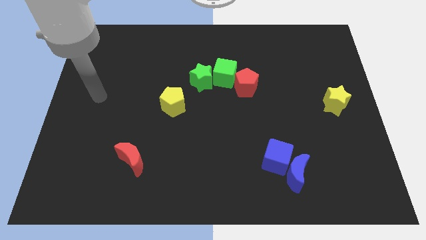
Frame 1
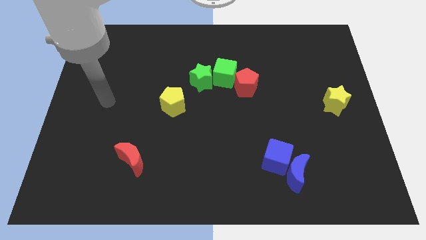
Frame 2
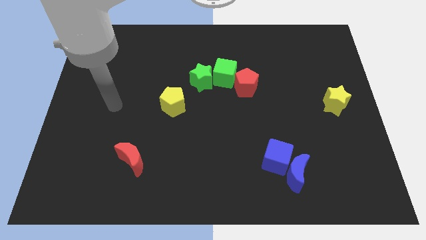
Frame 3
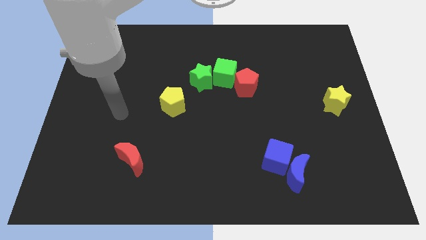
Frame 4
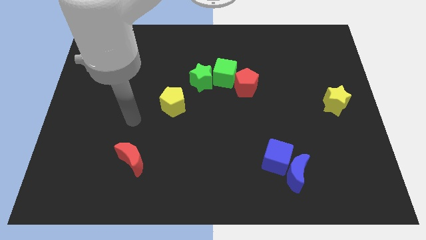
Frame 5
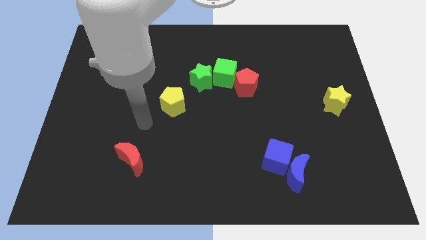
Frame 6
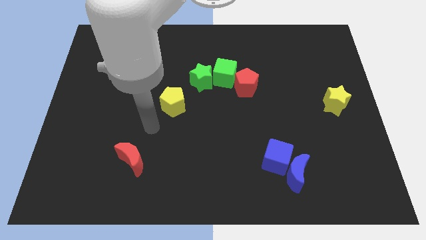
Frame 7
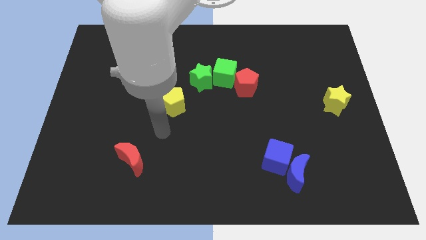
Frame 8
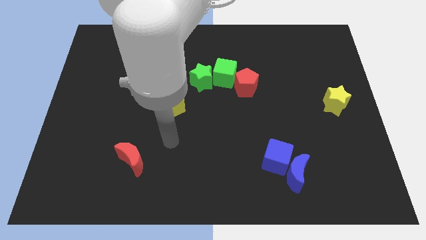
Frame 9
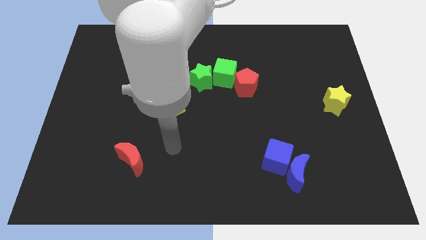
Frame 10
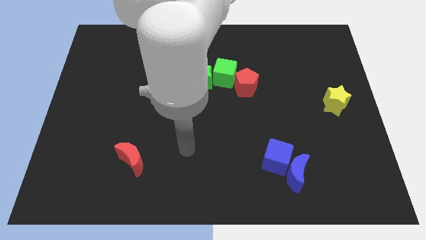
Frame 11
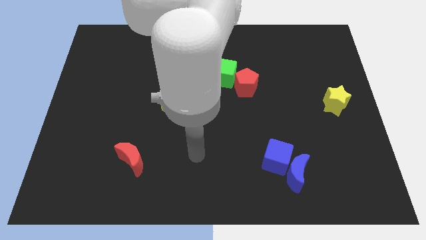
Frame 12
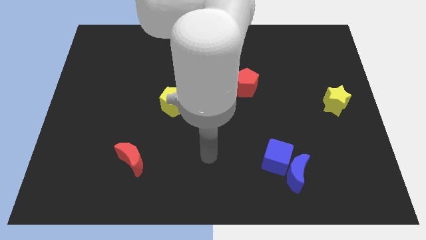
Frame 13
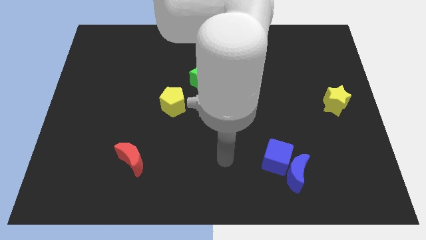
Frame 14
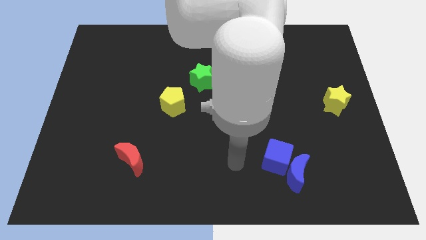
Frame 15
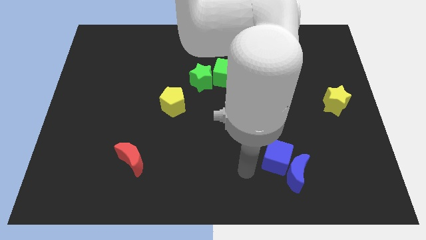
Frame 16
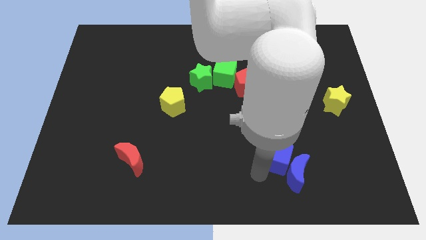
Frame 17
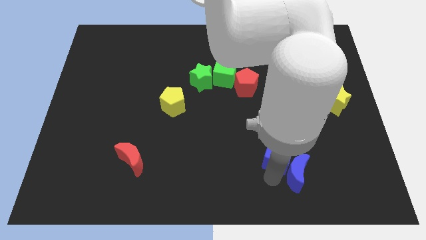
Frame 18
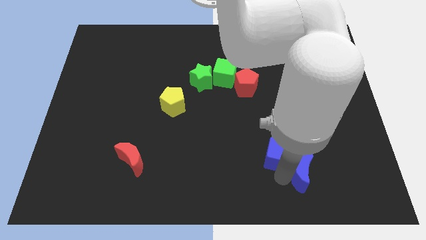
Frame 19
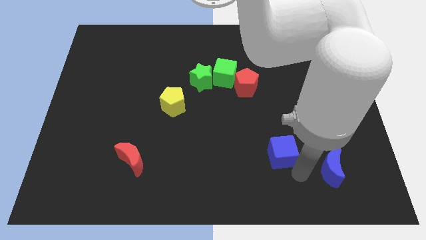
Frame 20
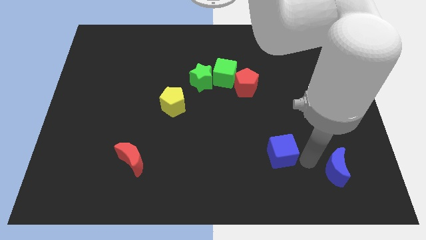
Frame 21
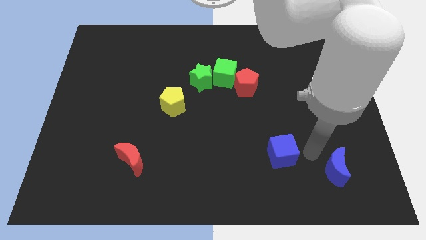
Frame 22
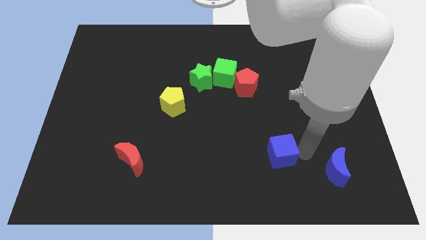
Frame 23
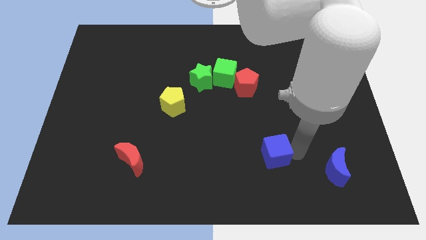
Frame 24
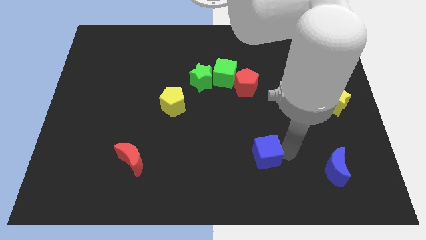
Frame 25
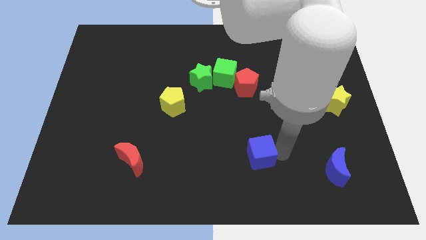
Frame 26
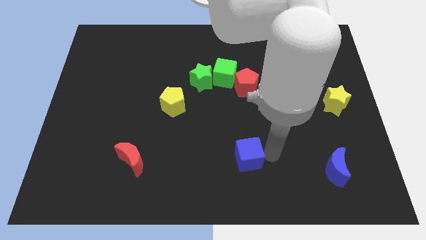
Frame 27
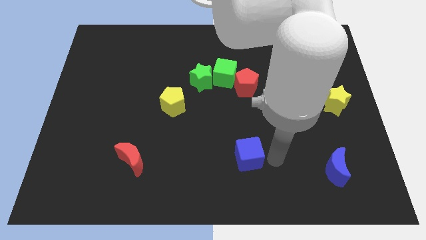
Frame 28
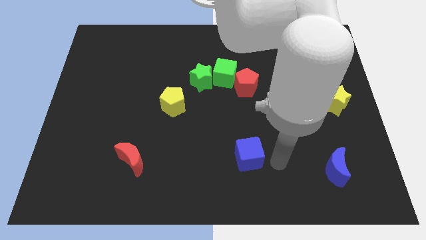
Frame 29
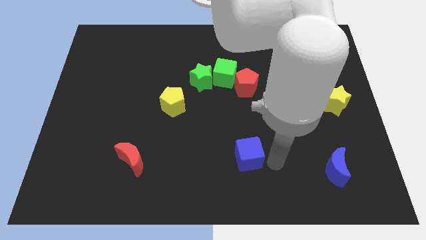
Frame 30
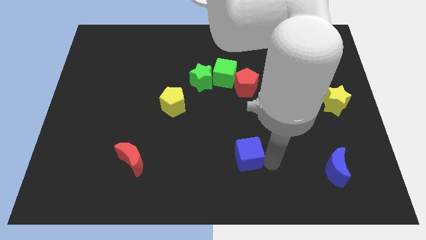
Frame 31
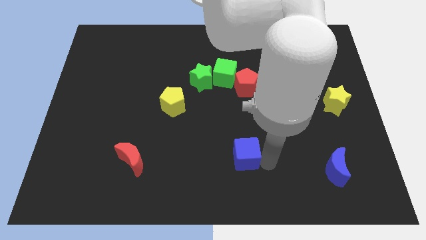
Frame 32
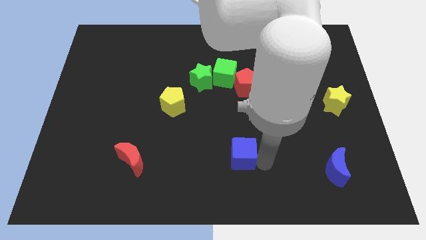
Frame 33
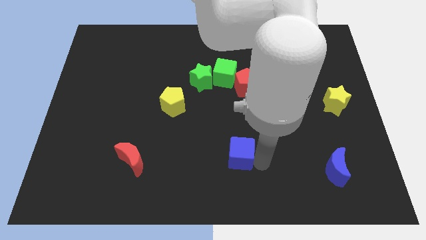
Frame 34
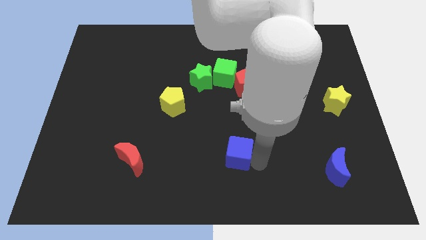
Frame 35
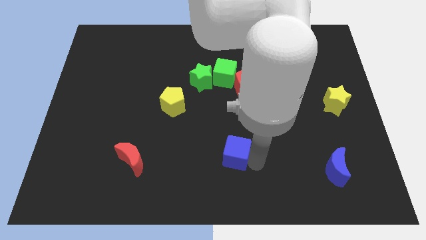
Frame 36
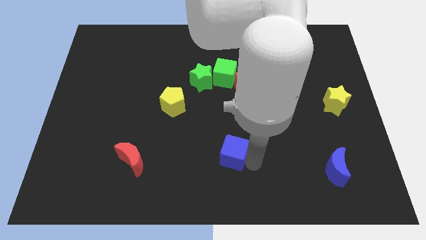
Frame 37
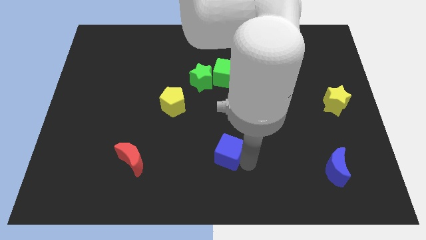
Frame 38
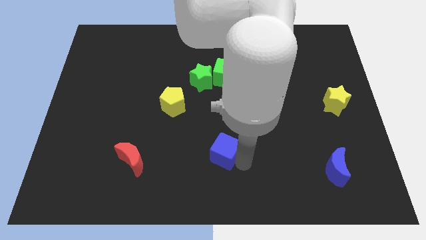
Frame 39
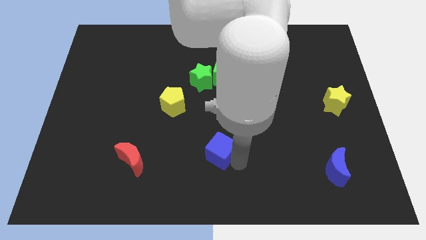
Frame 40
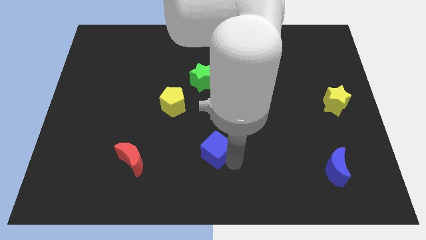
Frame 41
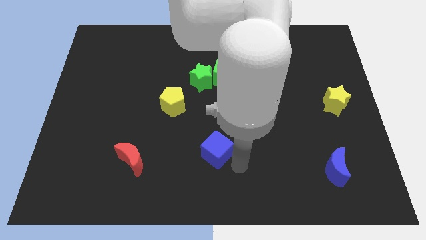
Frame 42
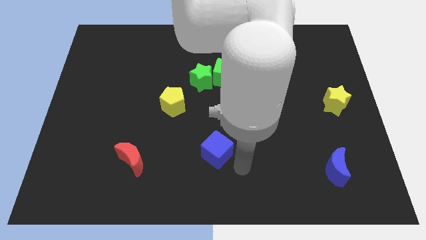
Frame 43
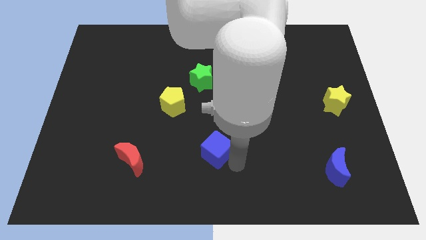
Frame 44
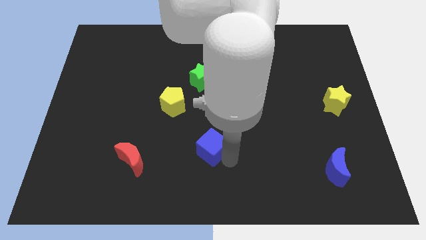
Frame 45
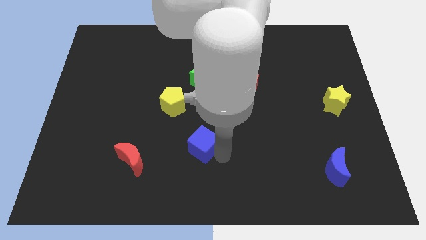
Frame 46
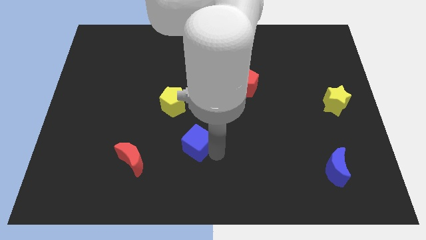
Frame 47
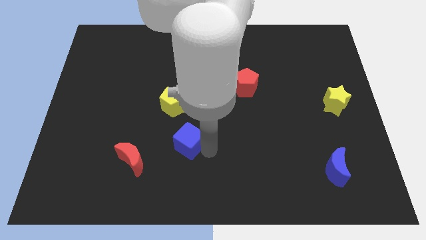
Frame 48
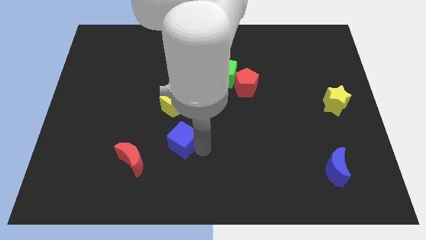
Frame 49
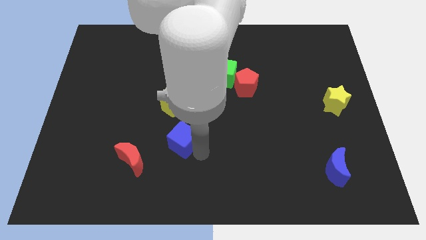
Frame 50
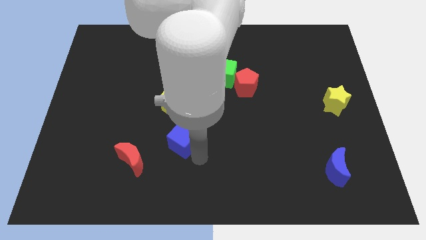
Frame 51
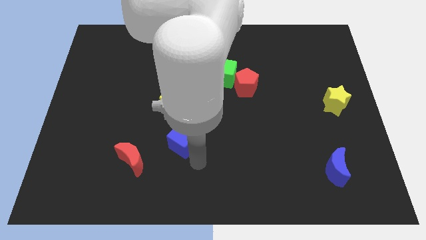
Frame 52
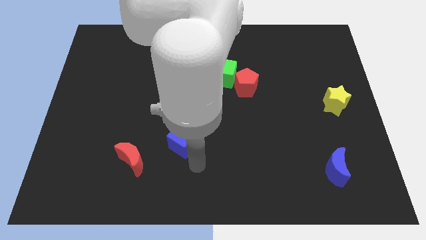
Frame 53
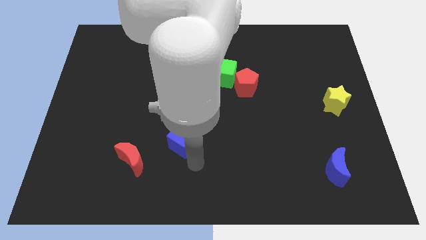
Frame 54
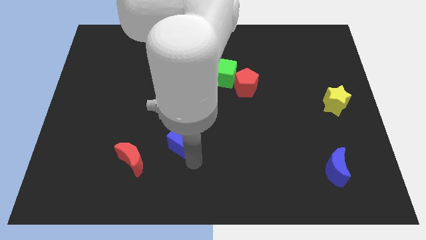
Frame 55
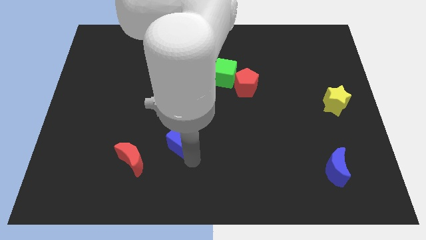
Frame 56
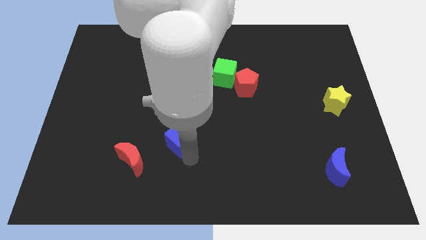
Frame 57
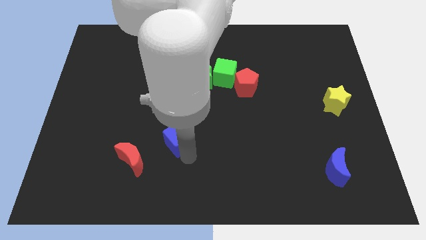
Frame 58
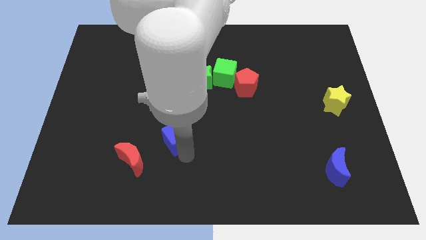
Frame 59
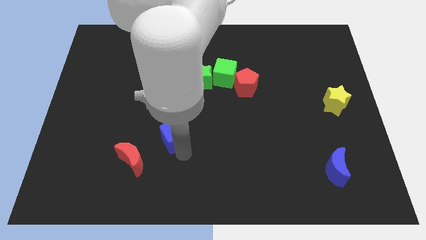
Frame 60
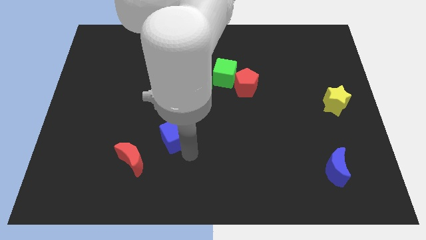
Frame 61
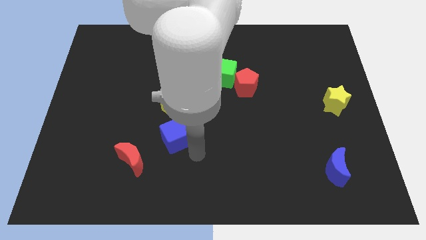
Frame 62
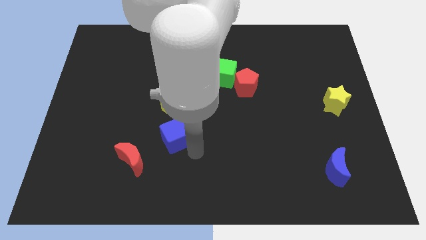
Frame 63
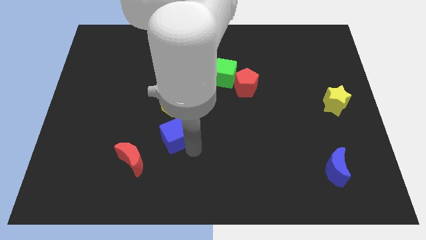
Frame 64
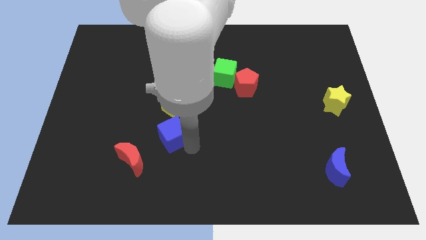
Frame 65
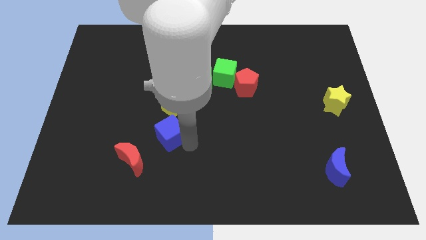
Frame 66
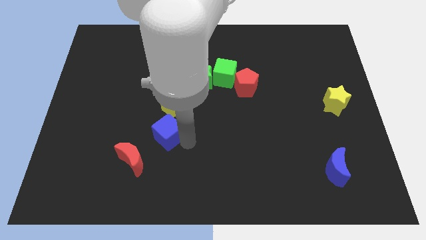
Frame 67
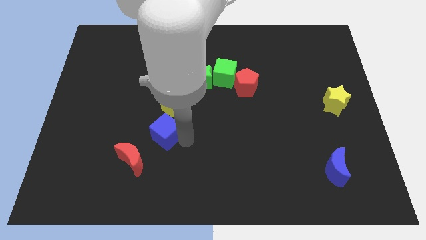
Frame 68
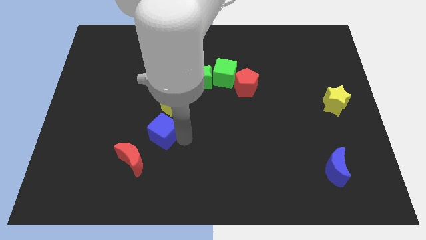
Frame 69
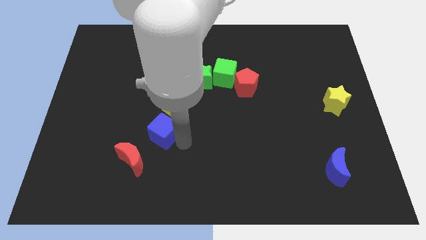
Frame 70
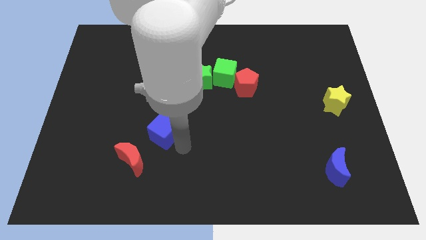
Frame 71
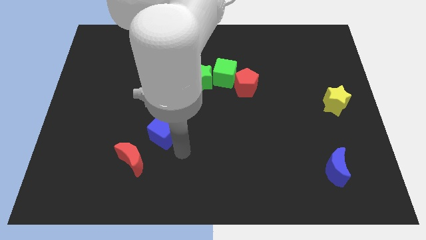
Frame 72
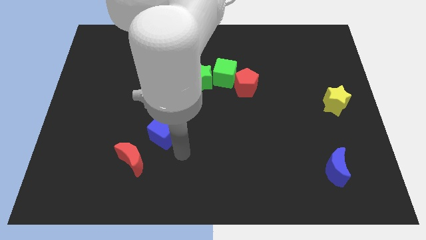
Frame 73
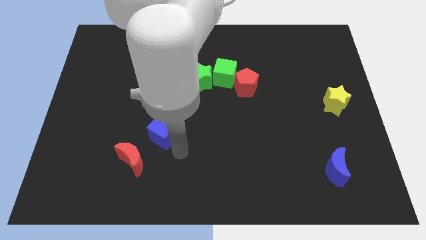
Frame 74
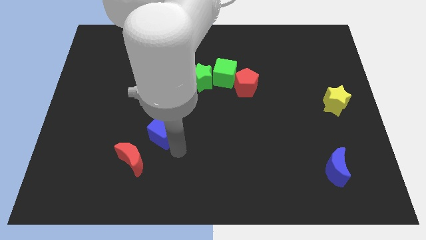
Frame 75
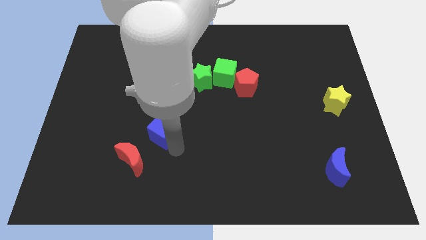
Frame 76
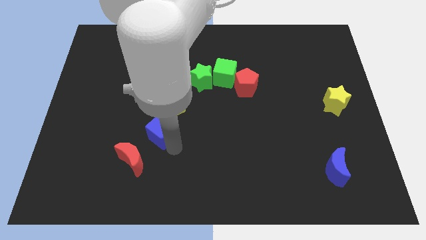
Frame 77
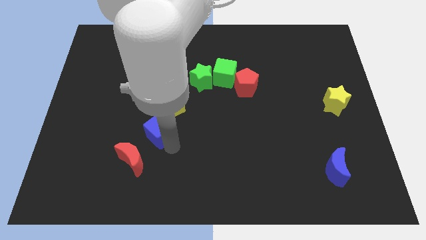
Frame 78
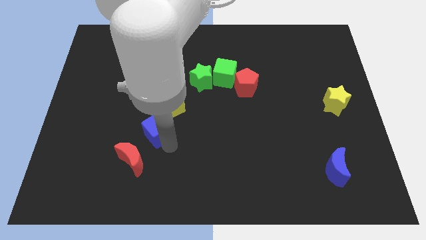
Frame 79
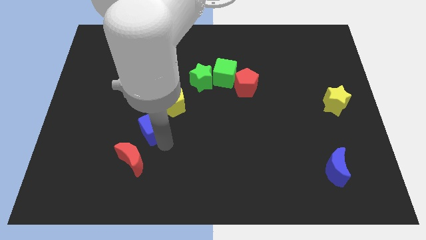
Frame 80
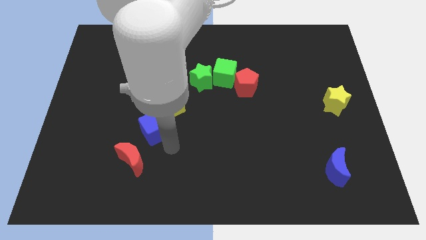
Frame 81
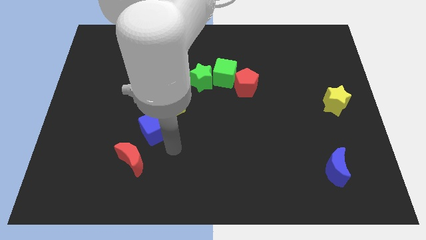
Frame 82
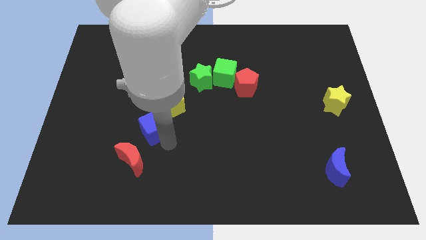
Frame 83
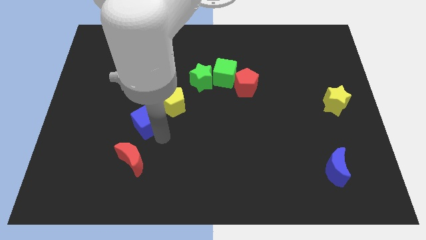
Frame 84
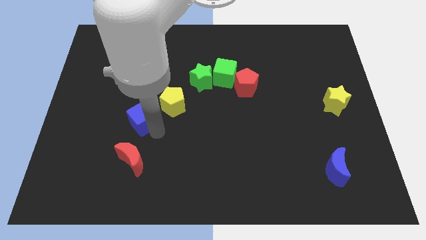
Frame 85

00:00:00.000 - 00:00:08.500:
put the blue cube to the left of the yellow pentagon
